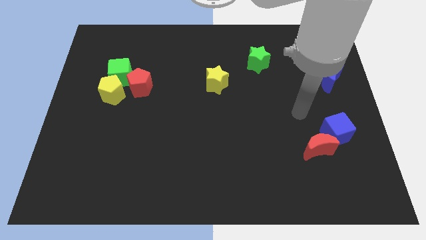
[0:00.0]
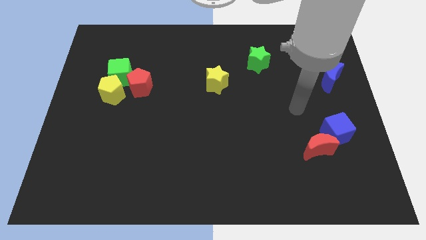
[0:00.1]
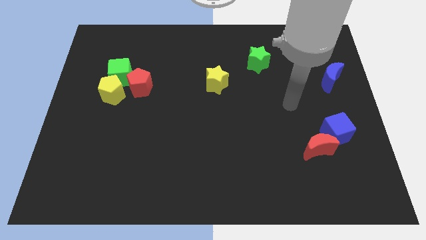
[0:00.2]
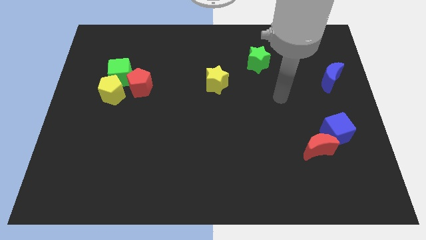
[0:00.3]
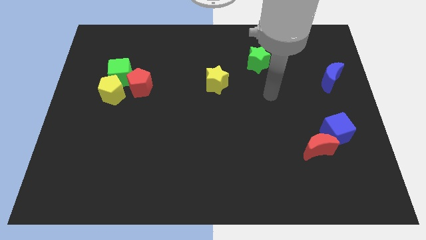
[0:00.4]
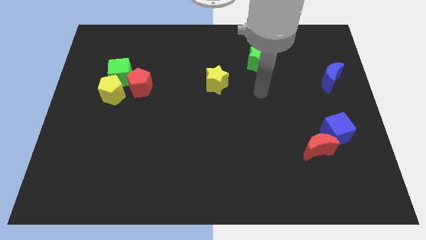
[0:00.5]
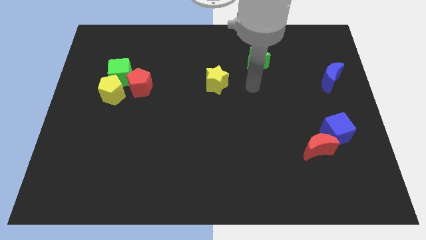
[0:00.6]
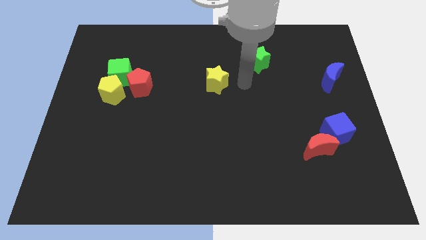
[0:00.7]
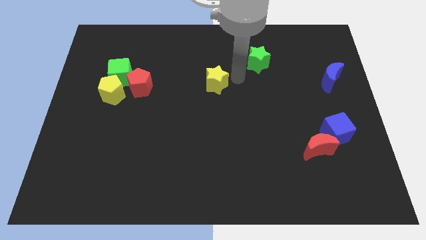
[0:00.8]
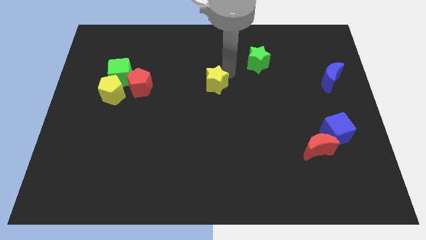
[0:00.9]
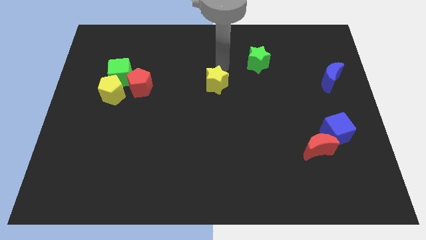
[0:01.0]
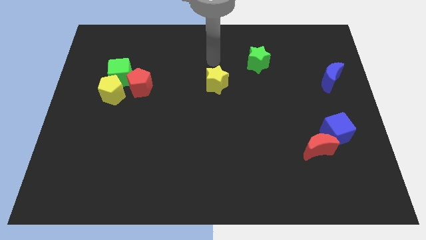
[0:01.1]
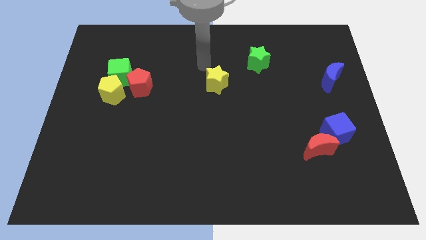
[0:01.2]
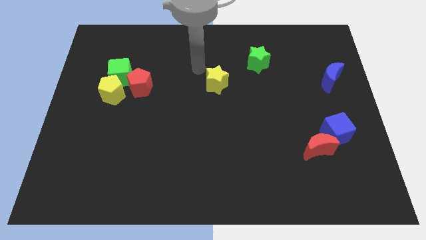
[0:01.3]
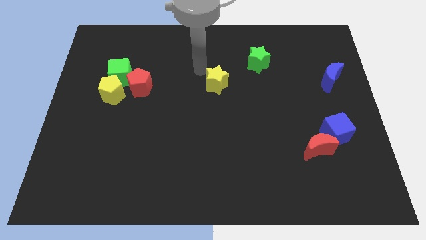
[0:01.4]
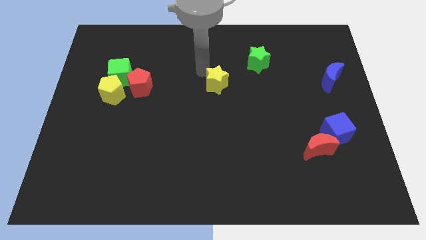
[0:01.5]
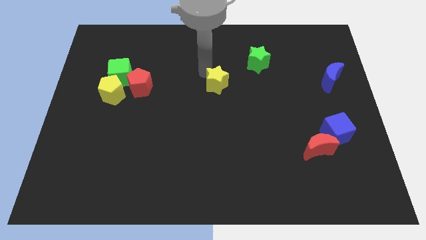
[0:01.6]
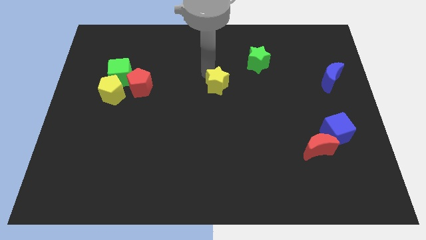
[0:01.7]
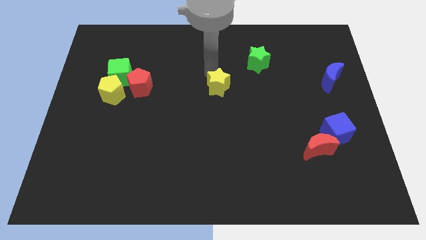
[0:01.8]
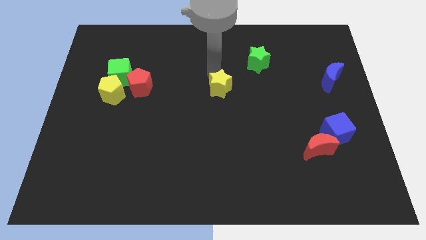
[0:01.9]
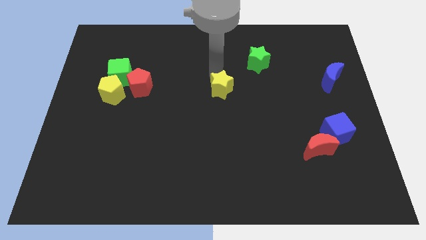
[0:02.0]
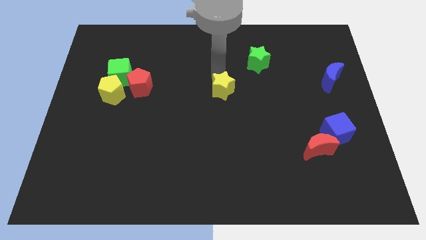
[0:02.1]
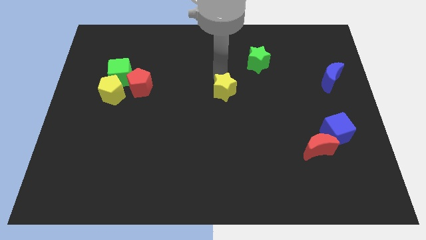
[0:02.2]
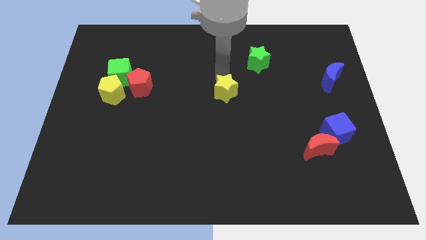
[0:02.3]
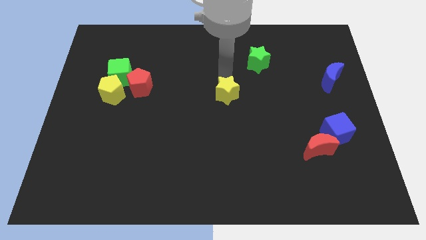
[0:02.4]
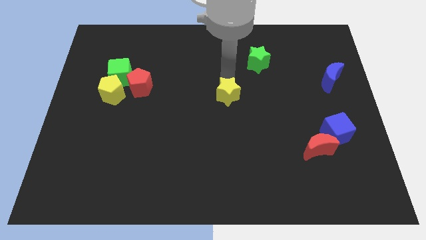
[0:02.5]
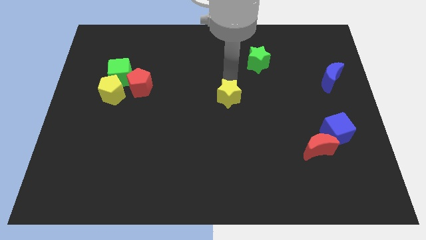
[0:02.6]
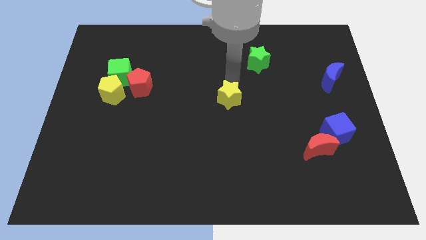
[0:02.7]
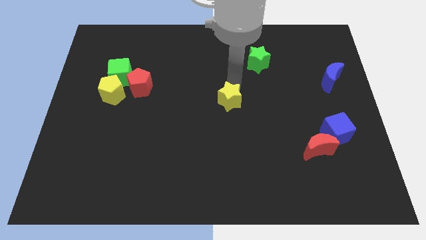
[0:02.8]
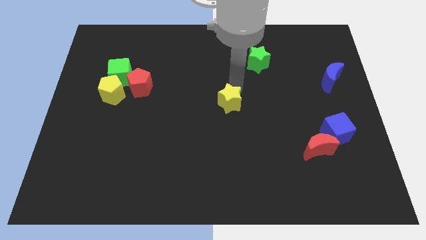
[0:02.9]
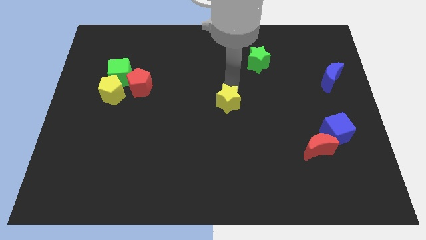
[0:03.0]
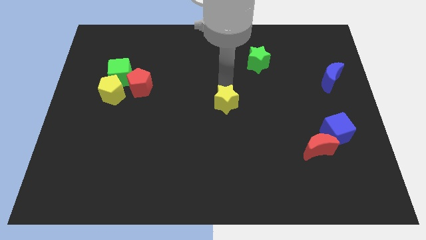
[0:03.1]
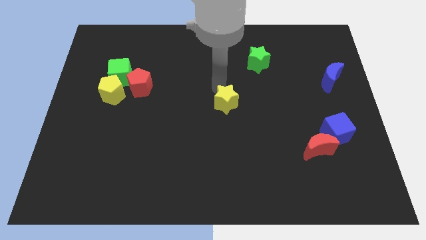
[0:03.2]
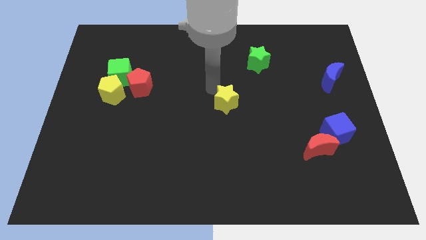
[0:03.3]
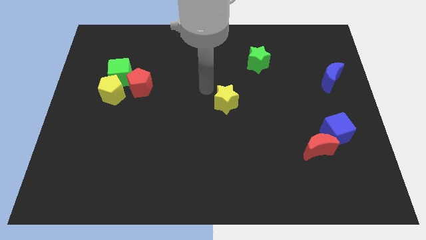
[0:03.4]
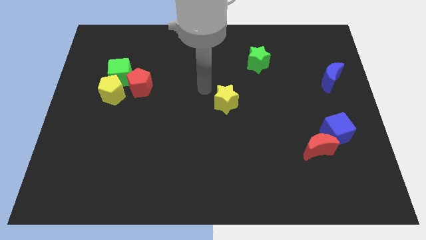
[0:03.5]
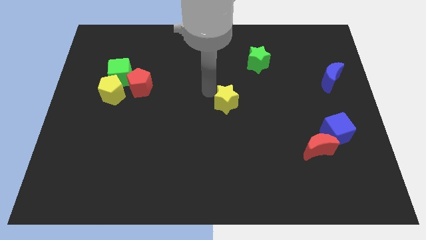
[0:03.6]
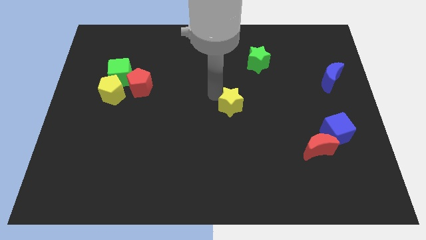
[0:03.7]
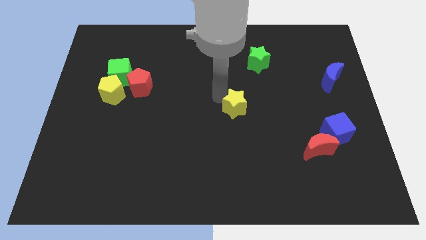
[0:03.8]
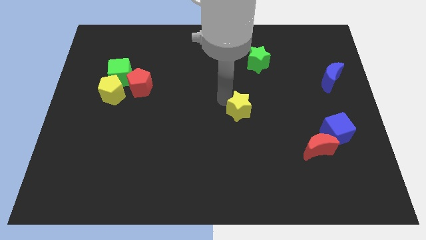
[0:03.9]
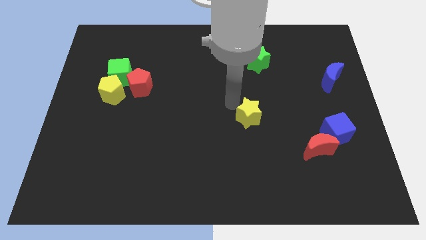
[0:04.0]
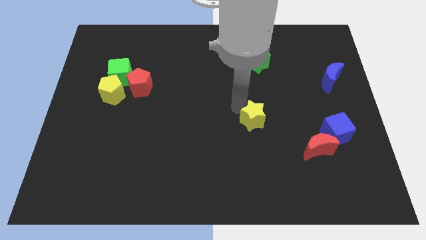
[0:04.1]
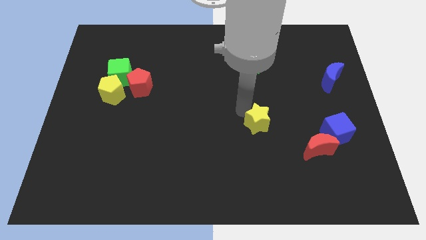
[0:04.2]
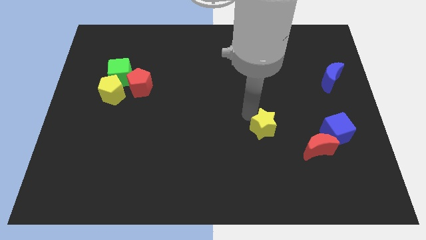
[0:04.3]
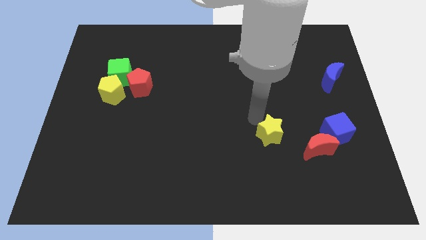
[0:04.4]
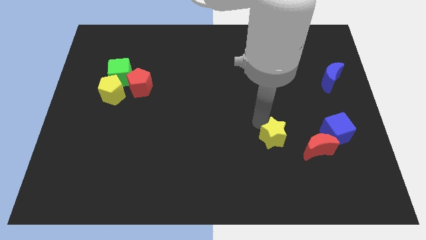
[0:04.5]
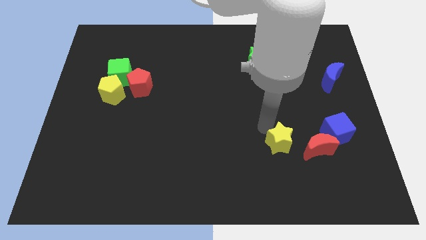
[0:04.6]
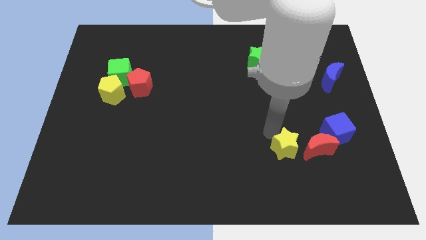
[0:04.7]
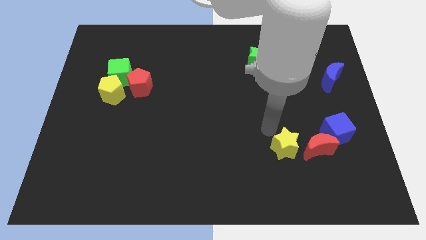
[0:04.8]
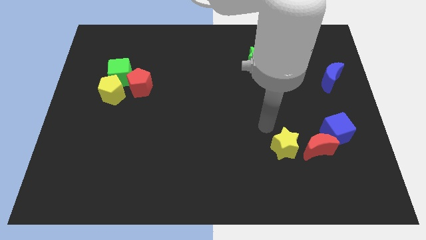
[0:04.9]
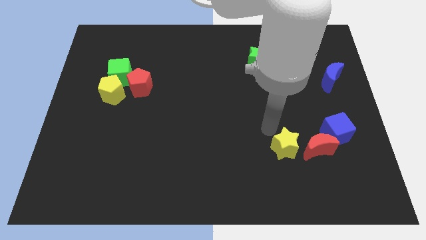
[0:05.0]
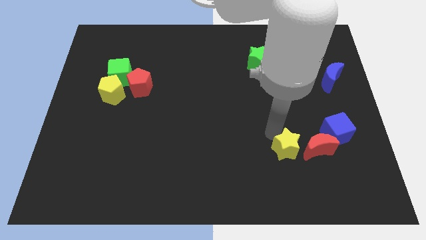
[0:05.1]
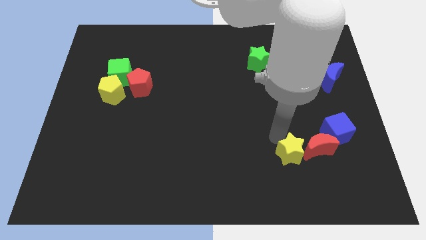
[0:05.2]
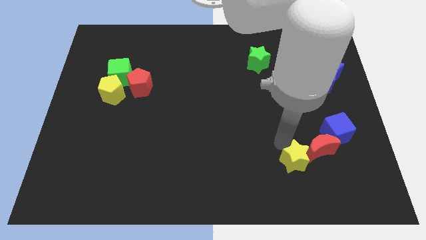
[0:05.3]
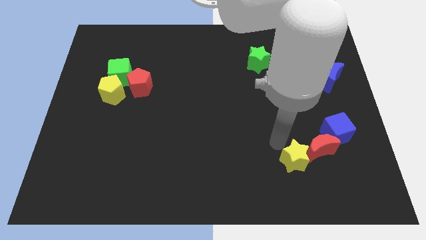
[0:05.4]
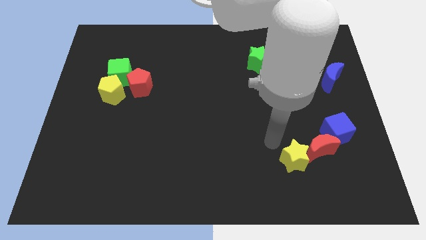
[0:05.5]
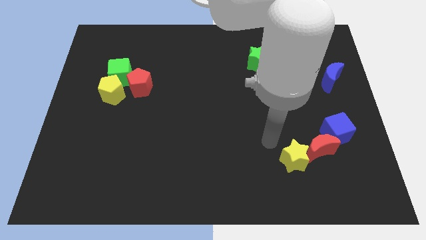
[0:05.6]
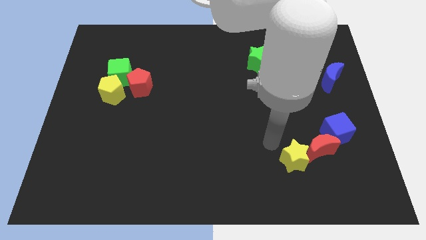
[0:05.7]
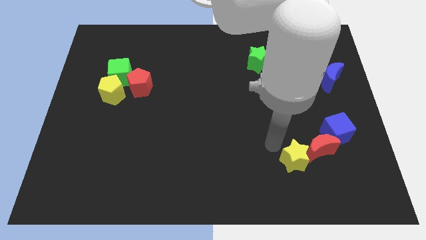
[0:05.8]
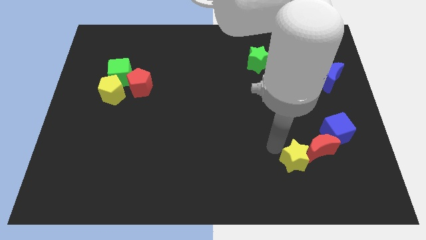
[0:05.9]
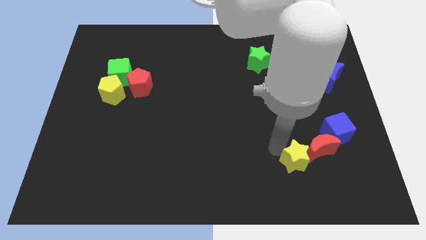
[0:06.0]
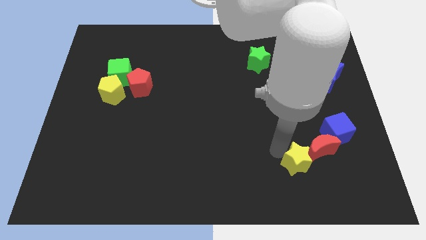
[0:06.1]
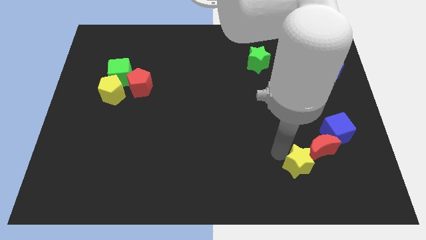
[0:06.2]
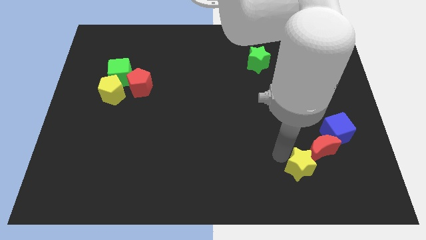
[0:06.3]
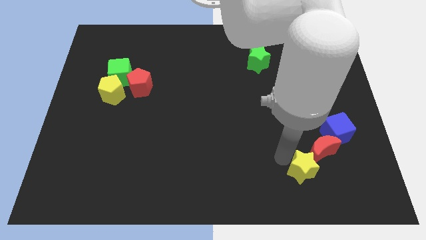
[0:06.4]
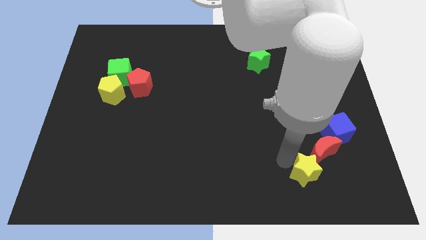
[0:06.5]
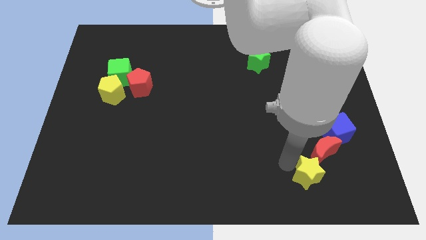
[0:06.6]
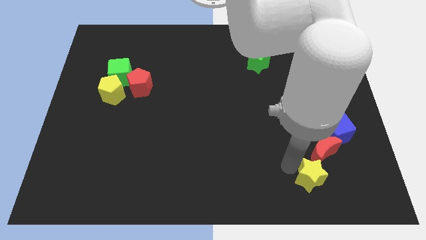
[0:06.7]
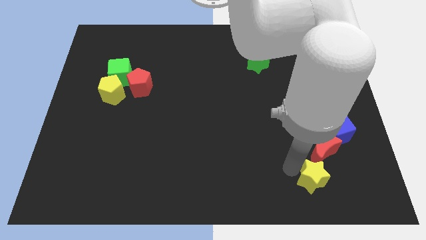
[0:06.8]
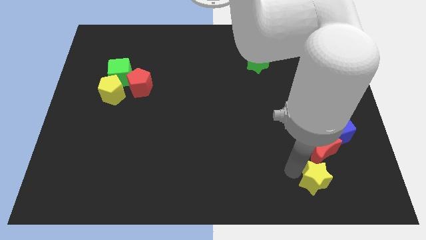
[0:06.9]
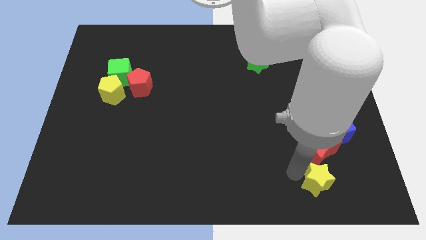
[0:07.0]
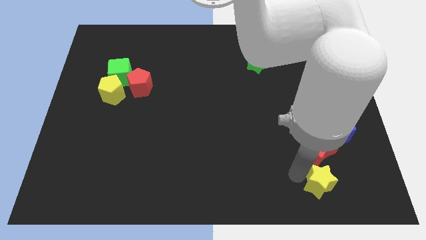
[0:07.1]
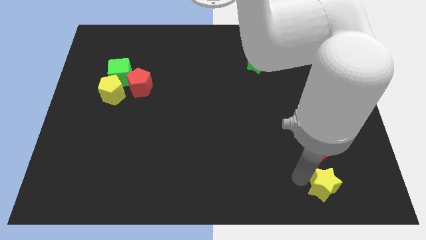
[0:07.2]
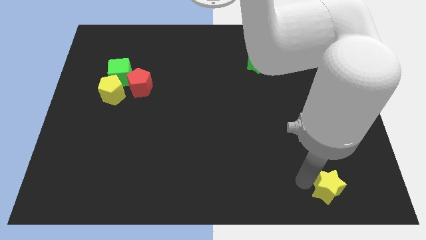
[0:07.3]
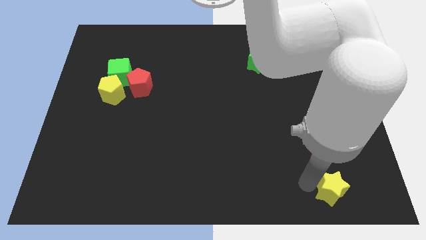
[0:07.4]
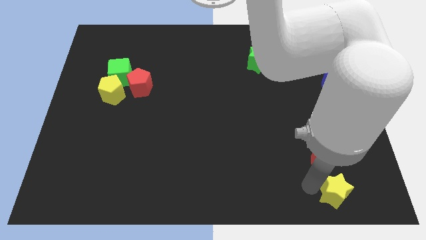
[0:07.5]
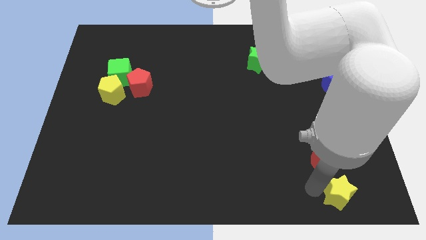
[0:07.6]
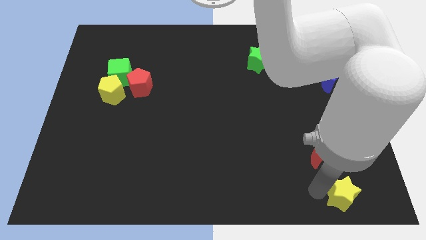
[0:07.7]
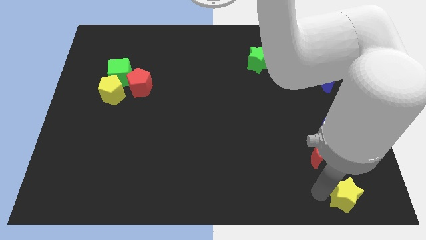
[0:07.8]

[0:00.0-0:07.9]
move the yellow star to the bottom right
